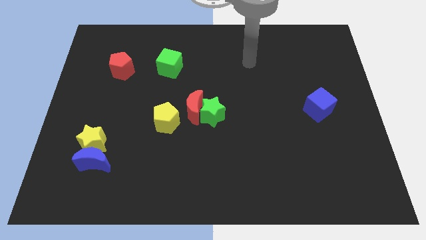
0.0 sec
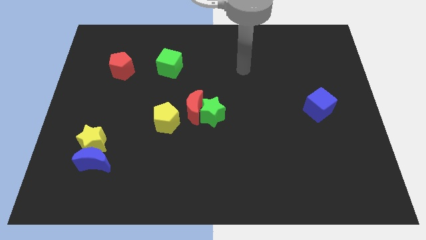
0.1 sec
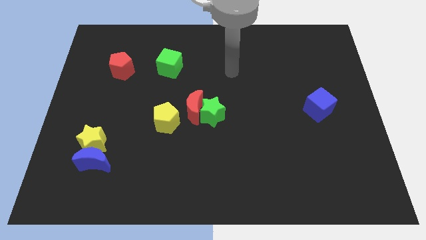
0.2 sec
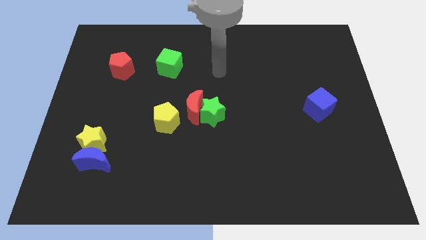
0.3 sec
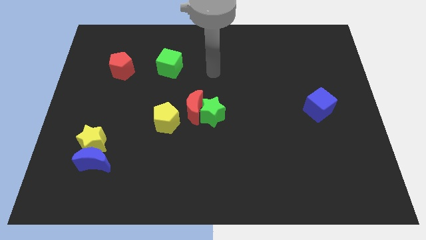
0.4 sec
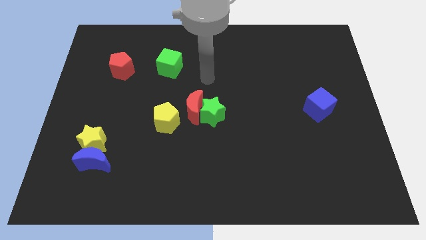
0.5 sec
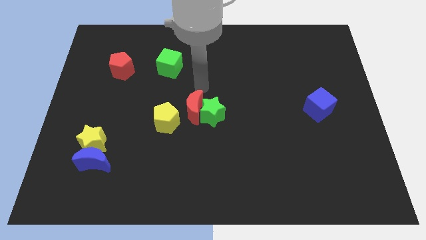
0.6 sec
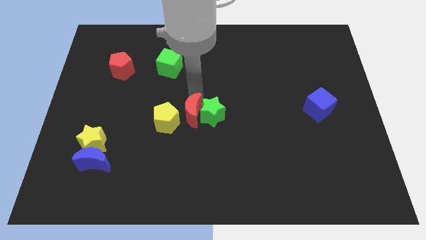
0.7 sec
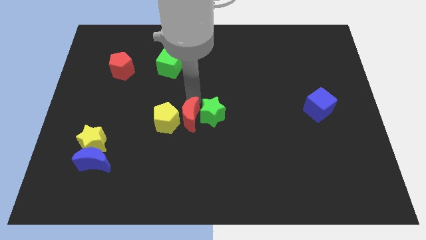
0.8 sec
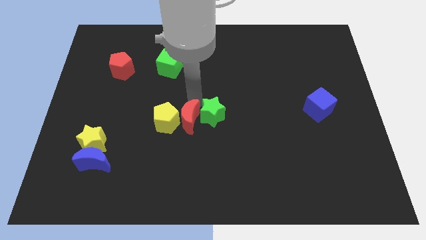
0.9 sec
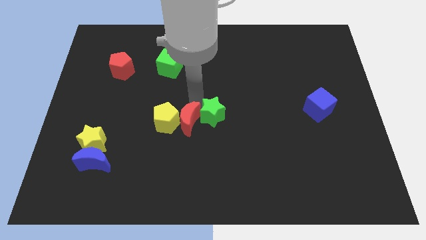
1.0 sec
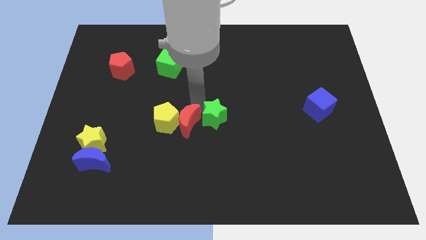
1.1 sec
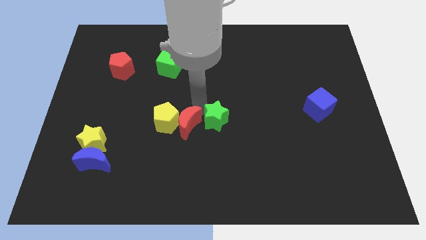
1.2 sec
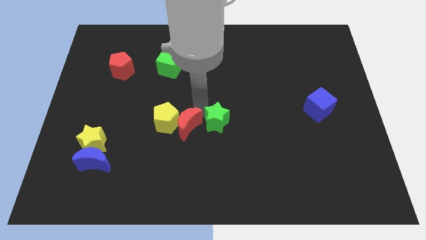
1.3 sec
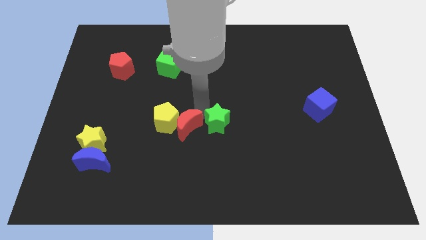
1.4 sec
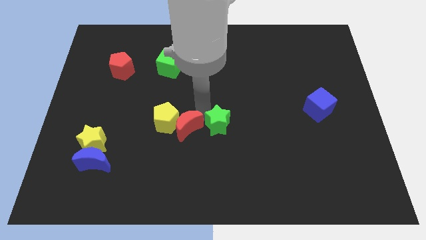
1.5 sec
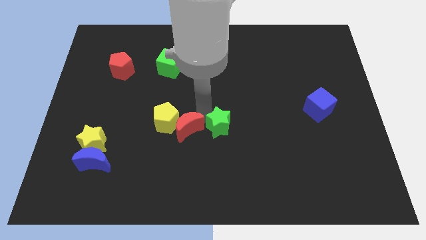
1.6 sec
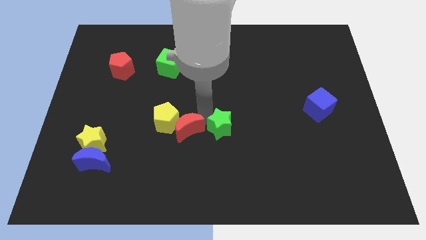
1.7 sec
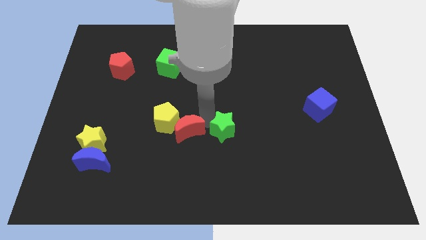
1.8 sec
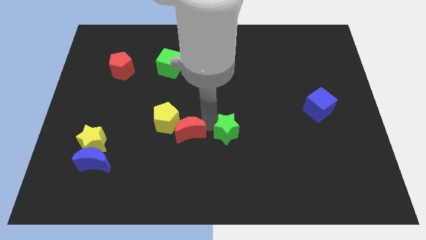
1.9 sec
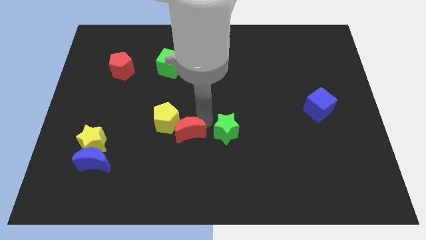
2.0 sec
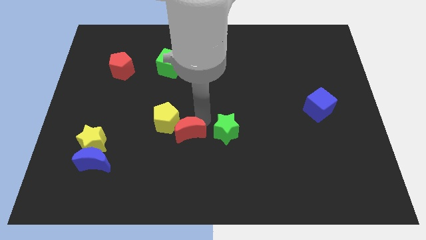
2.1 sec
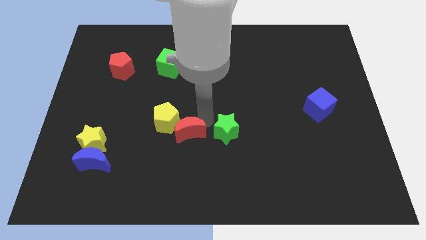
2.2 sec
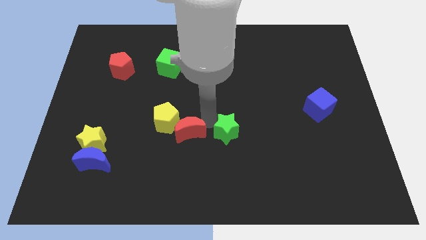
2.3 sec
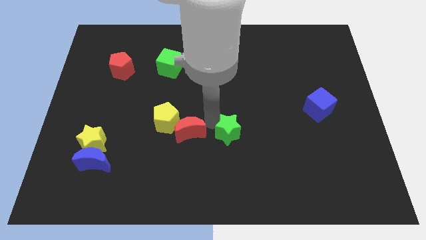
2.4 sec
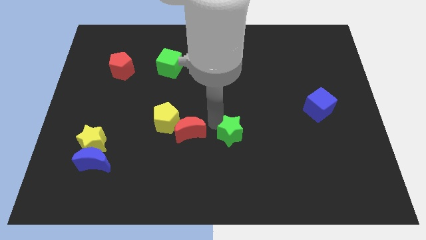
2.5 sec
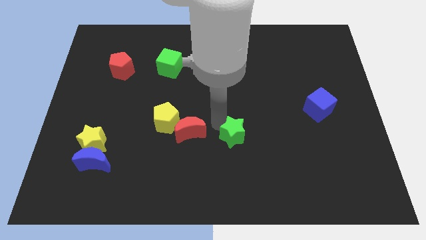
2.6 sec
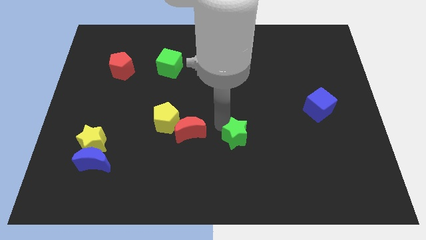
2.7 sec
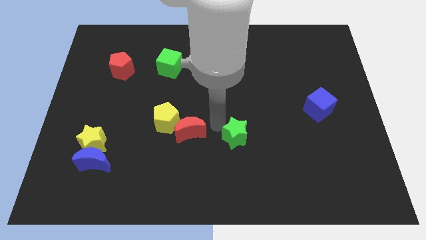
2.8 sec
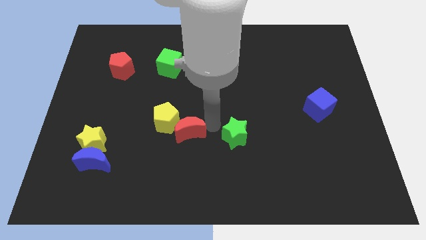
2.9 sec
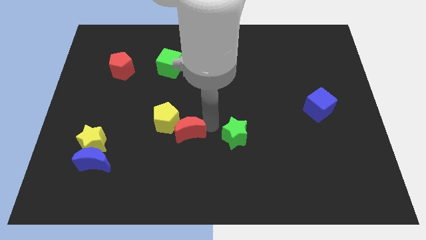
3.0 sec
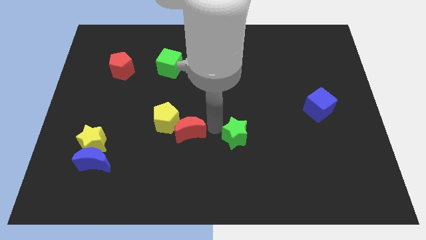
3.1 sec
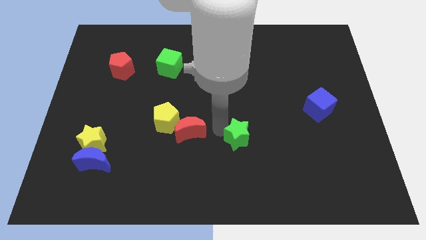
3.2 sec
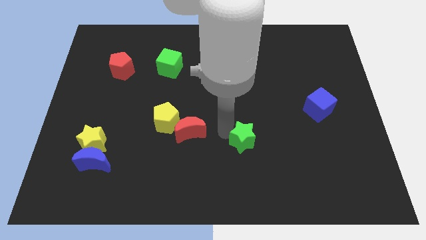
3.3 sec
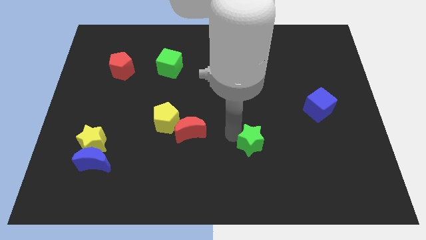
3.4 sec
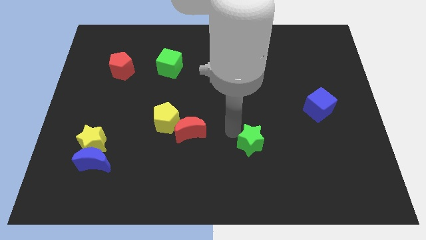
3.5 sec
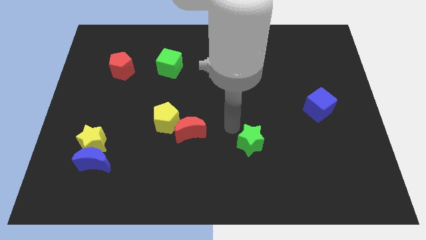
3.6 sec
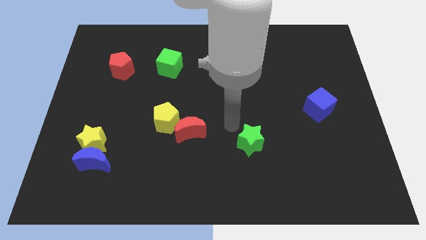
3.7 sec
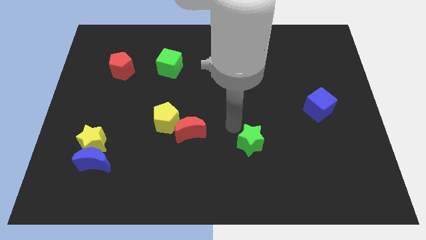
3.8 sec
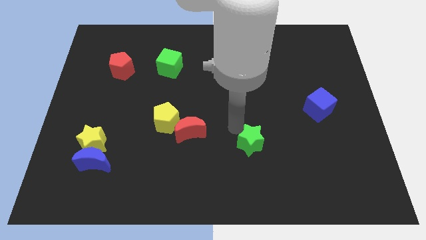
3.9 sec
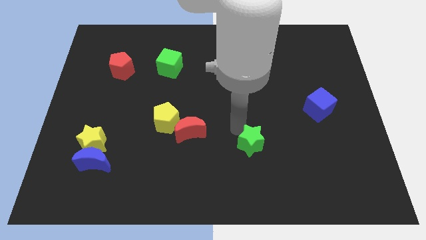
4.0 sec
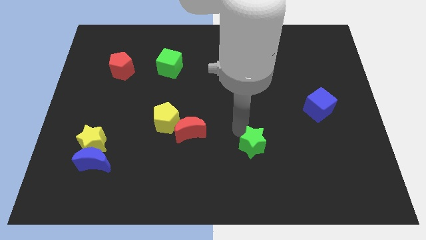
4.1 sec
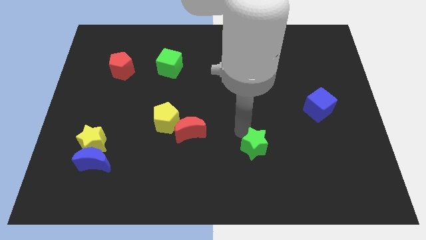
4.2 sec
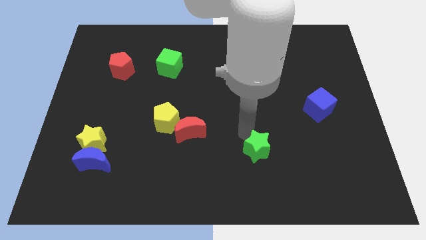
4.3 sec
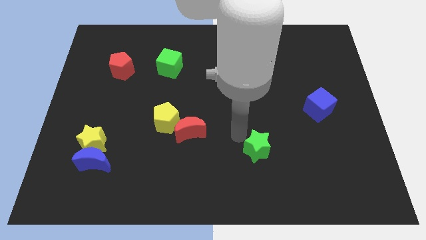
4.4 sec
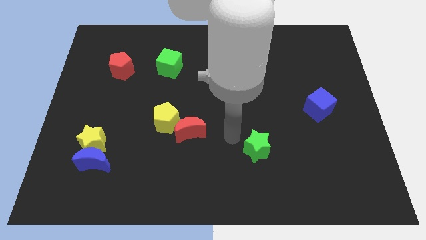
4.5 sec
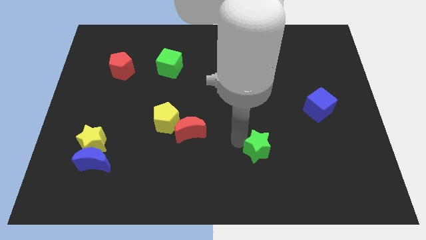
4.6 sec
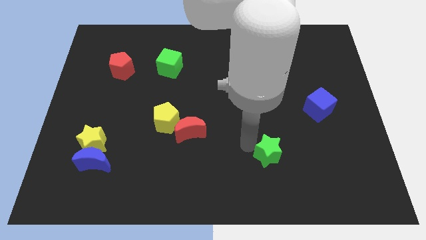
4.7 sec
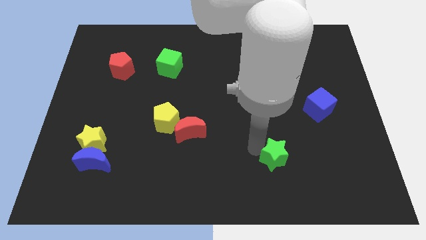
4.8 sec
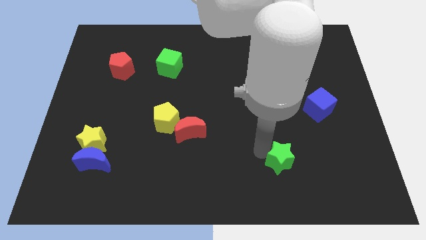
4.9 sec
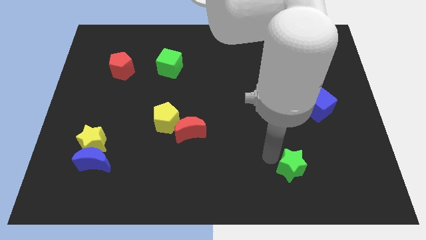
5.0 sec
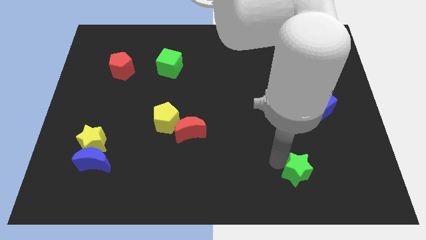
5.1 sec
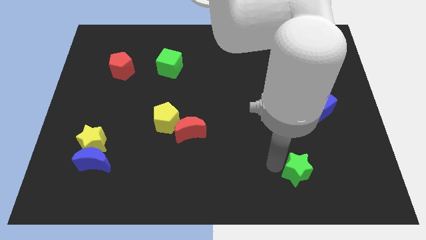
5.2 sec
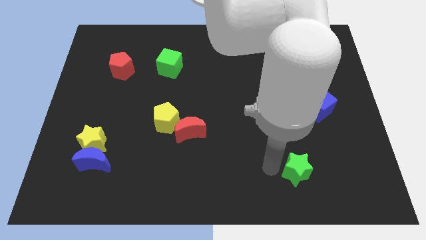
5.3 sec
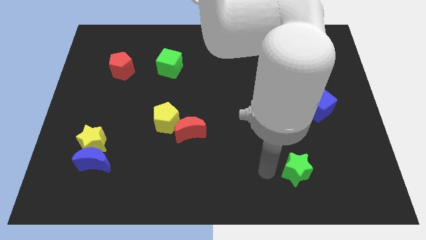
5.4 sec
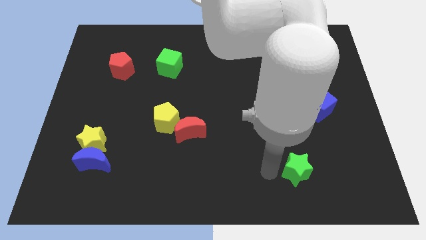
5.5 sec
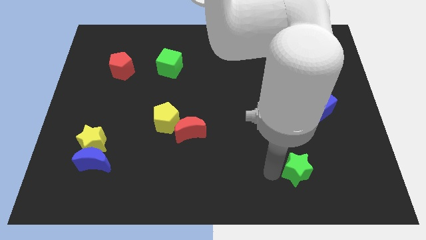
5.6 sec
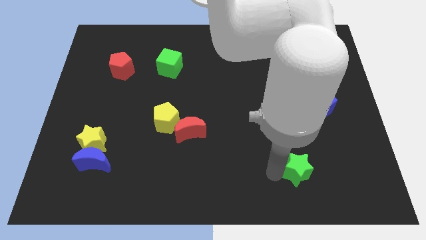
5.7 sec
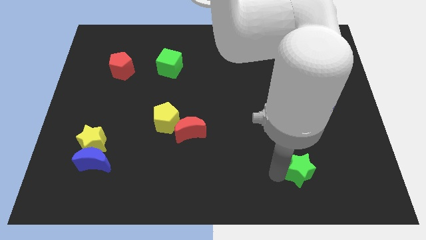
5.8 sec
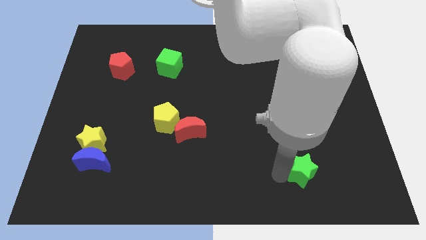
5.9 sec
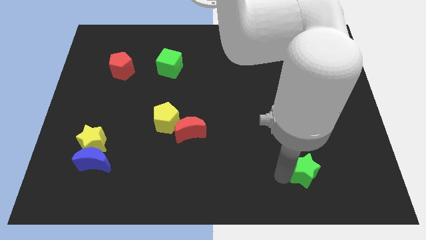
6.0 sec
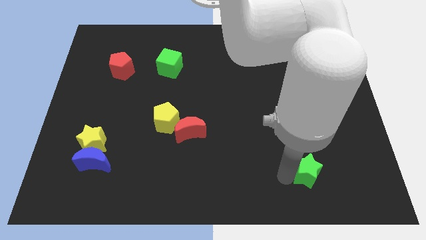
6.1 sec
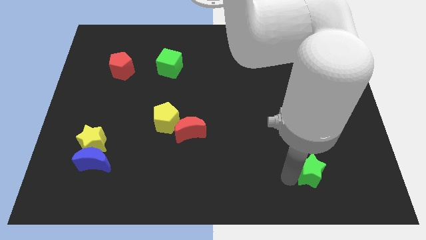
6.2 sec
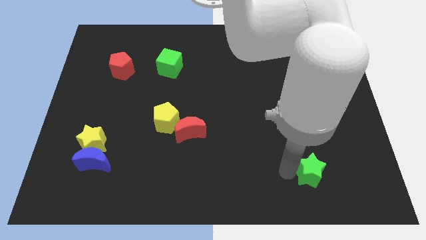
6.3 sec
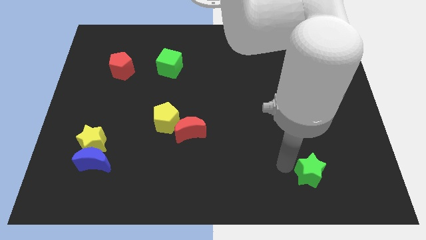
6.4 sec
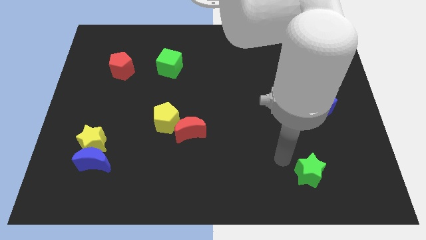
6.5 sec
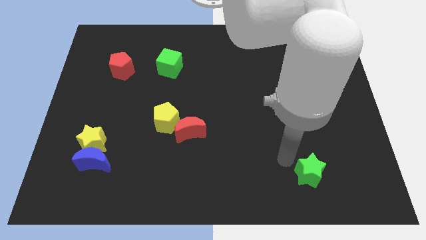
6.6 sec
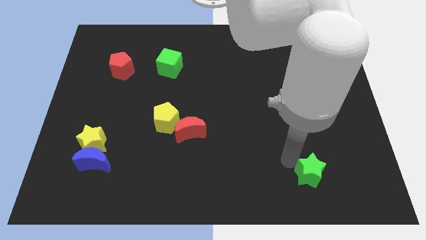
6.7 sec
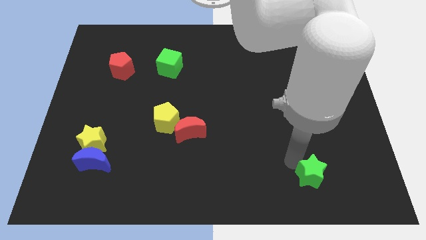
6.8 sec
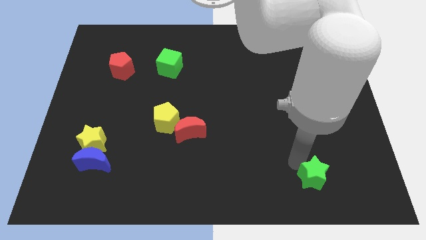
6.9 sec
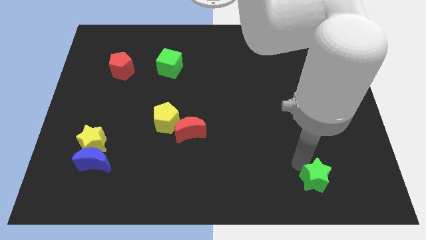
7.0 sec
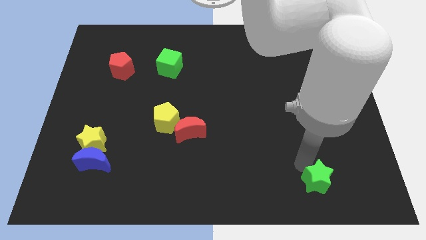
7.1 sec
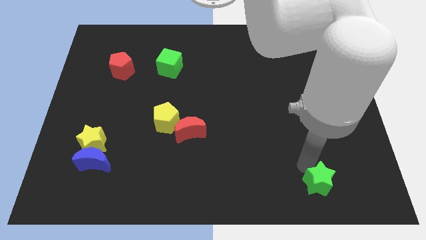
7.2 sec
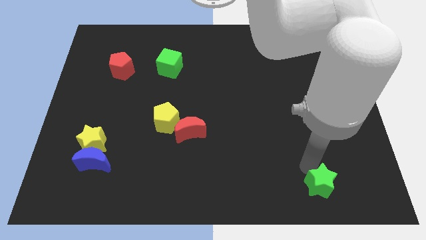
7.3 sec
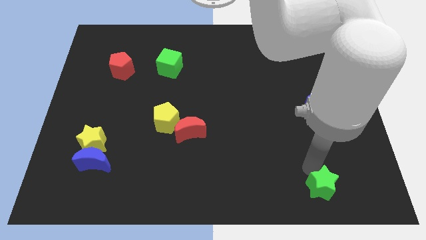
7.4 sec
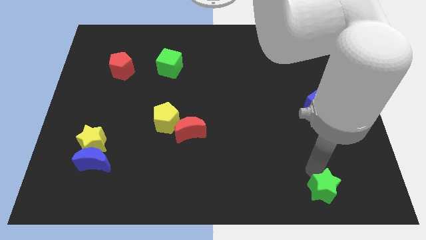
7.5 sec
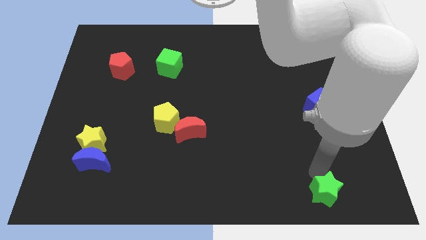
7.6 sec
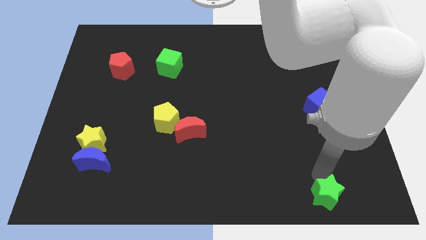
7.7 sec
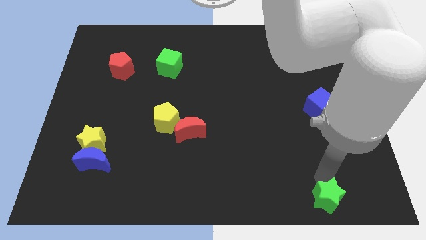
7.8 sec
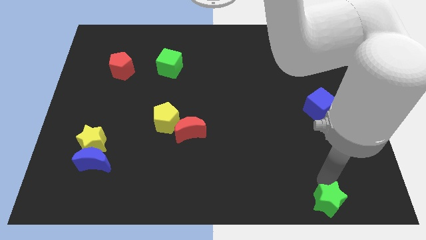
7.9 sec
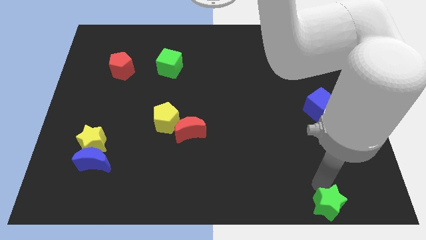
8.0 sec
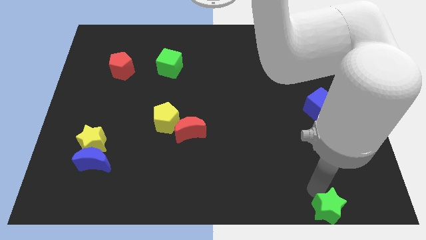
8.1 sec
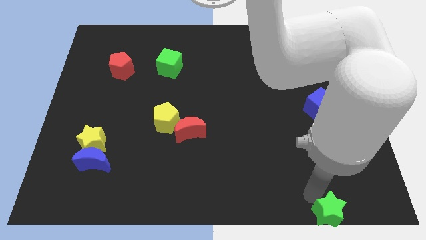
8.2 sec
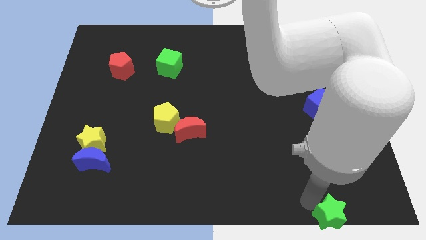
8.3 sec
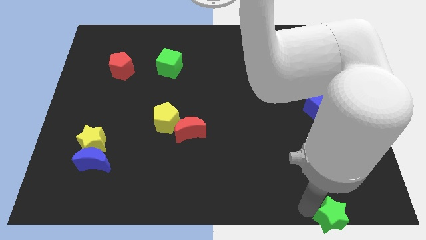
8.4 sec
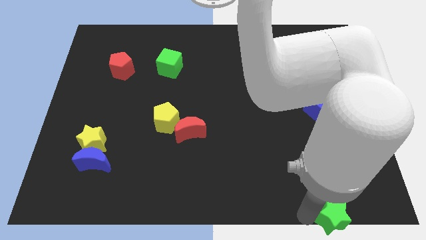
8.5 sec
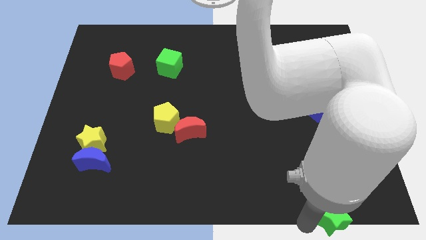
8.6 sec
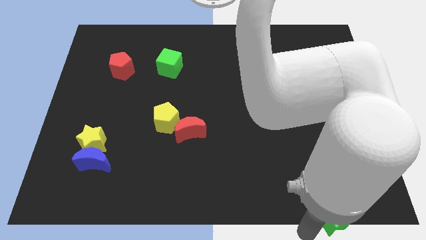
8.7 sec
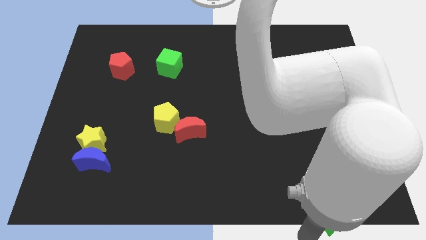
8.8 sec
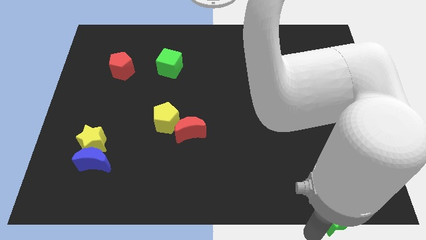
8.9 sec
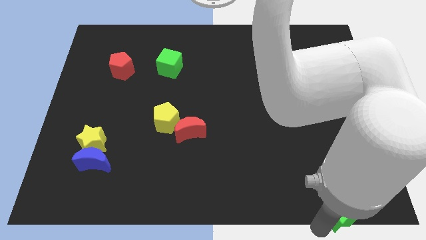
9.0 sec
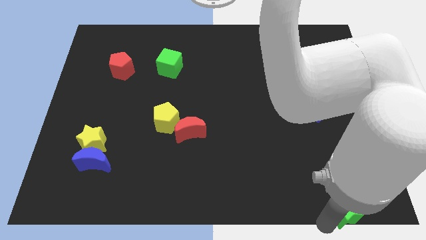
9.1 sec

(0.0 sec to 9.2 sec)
push the green star to the lower right corner
